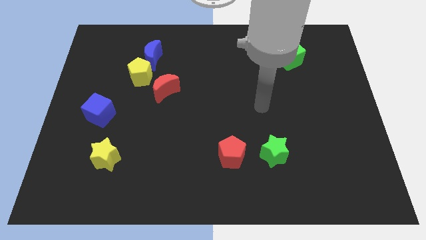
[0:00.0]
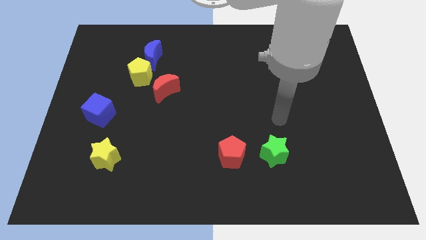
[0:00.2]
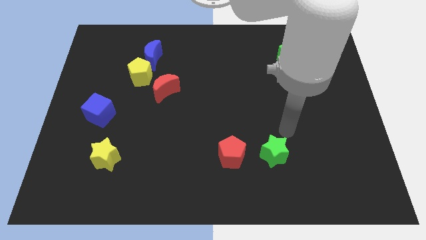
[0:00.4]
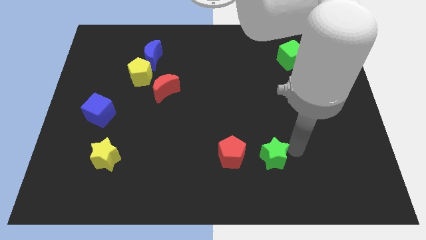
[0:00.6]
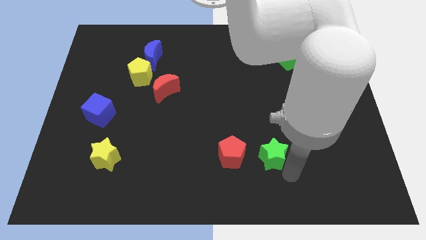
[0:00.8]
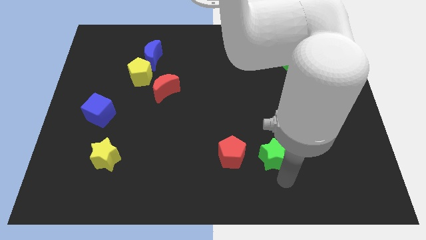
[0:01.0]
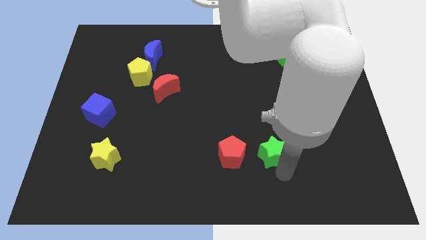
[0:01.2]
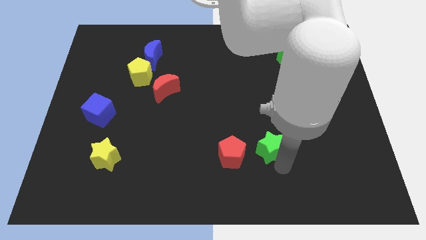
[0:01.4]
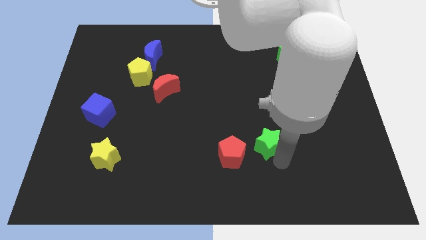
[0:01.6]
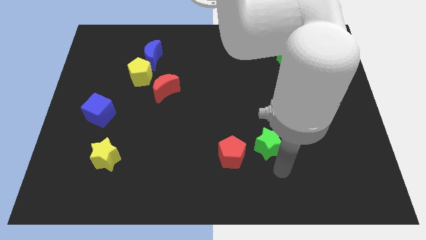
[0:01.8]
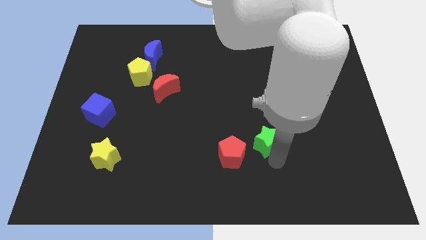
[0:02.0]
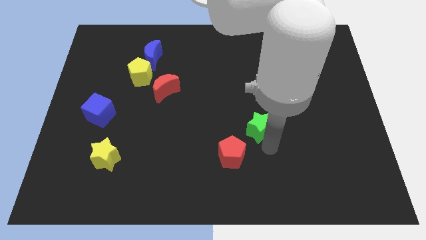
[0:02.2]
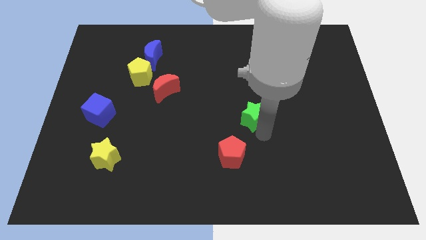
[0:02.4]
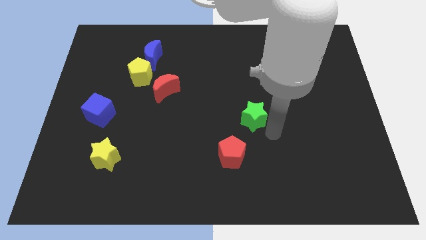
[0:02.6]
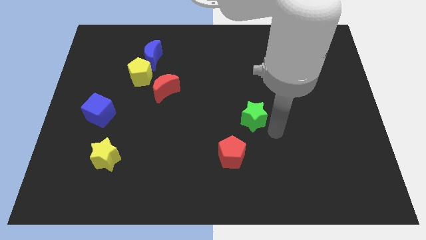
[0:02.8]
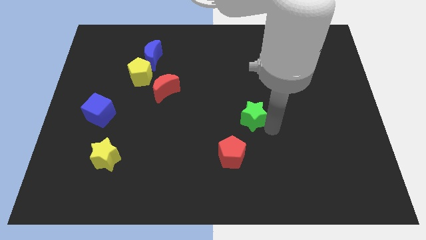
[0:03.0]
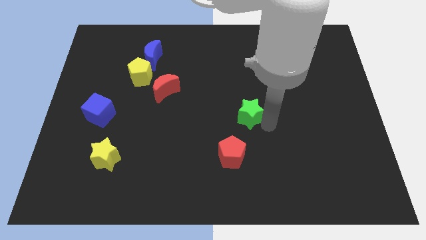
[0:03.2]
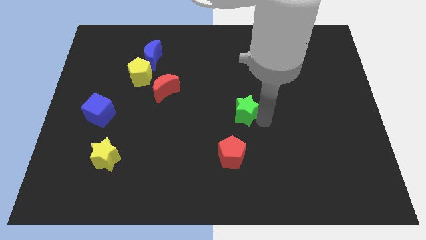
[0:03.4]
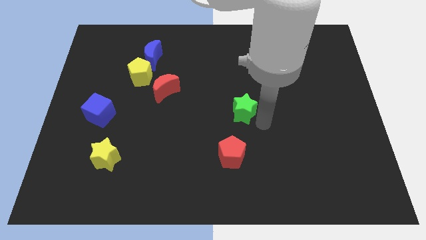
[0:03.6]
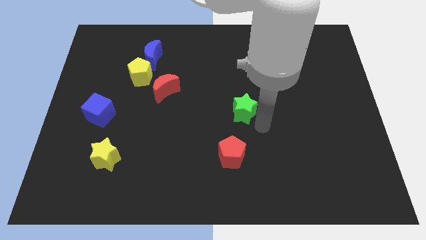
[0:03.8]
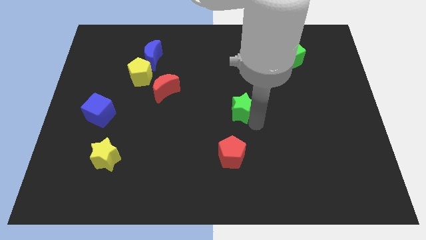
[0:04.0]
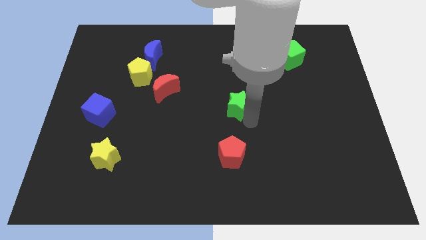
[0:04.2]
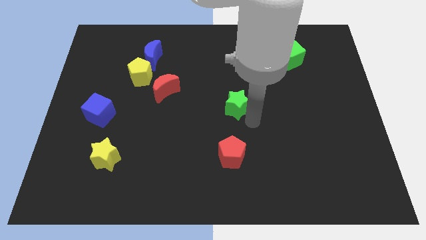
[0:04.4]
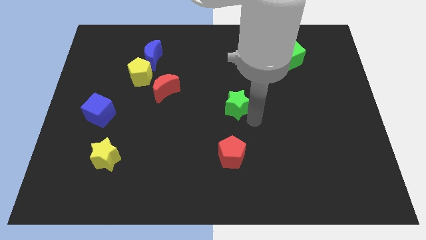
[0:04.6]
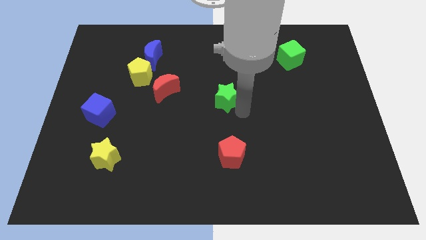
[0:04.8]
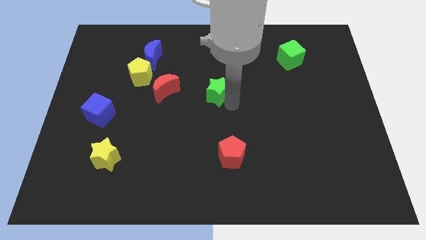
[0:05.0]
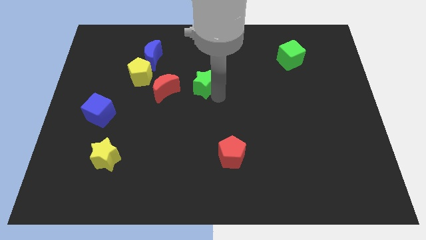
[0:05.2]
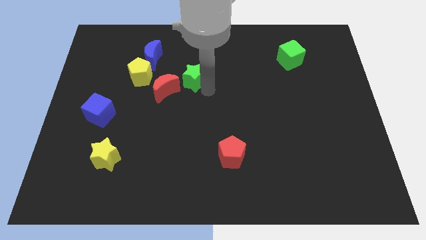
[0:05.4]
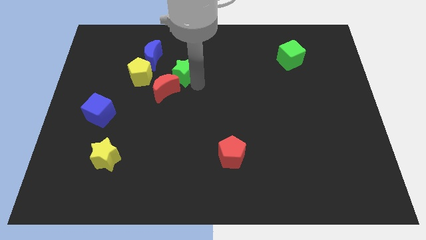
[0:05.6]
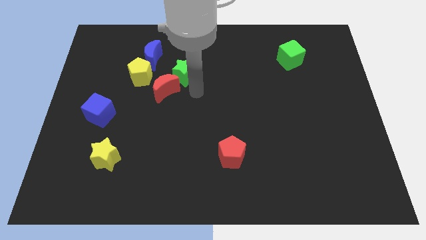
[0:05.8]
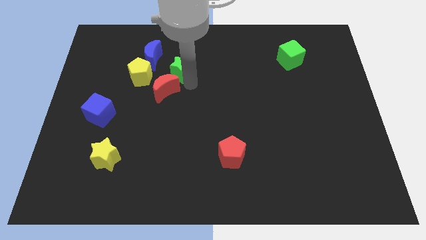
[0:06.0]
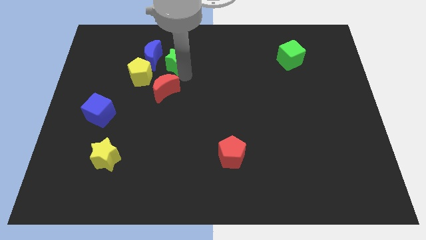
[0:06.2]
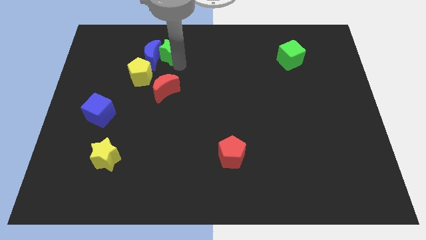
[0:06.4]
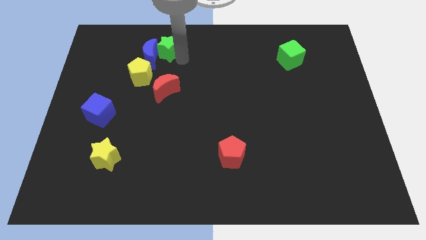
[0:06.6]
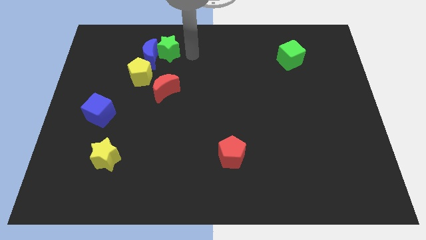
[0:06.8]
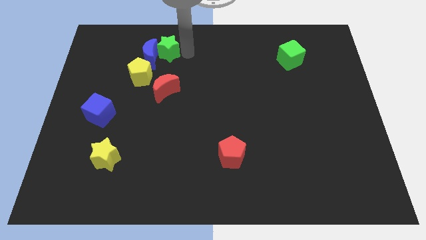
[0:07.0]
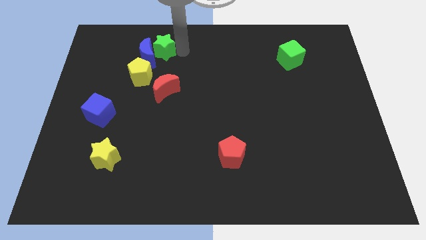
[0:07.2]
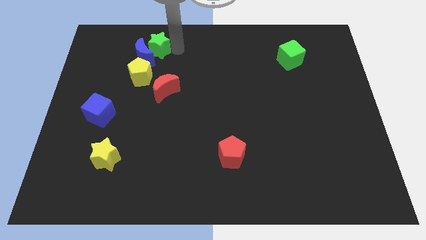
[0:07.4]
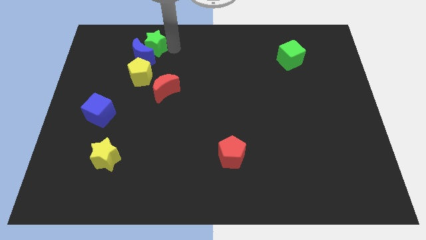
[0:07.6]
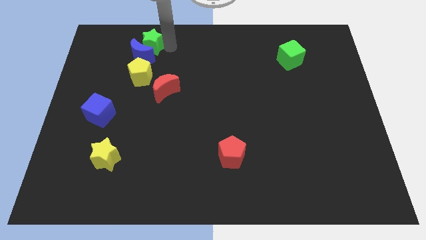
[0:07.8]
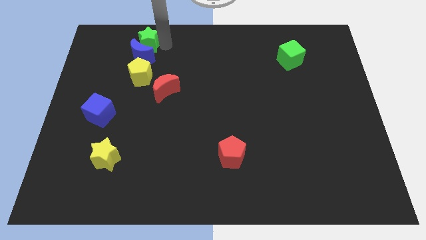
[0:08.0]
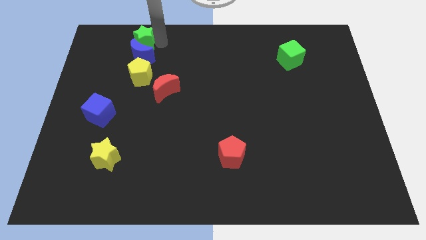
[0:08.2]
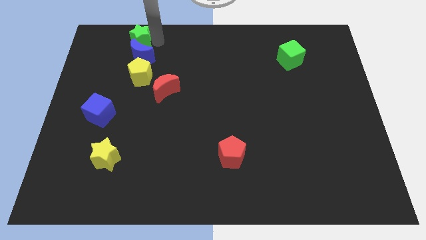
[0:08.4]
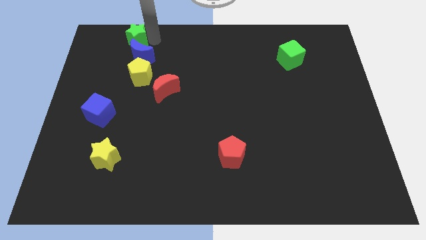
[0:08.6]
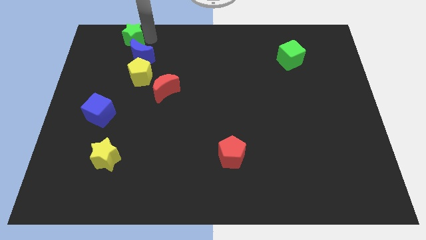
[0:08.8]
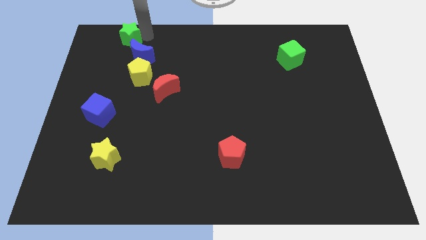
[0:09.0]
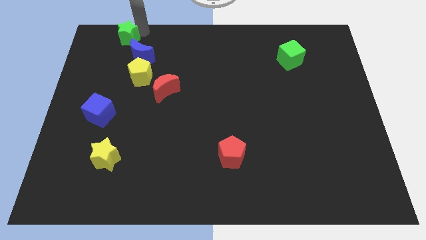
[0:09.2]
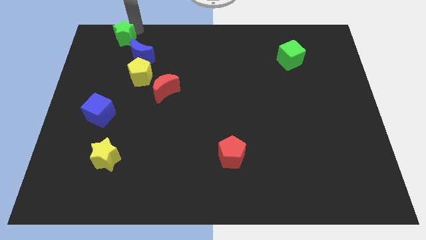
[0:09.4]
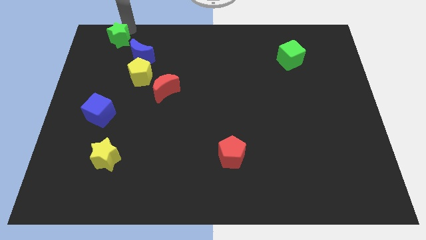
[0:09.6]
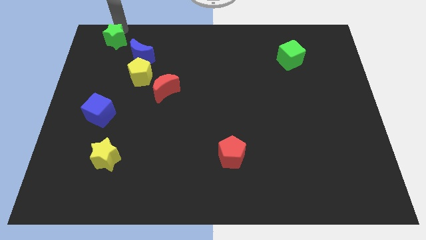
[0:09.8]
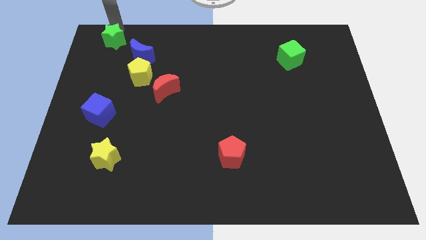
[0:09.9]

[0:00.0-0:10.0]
put the green star to the upper left corner
